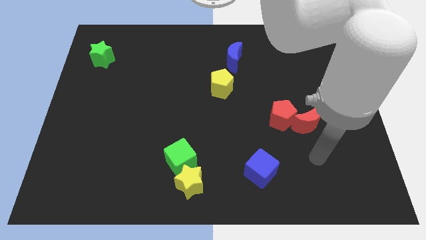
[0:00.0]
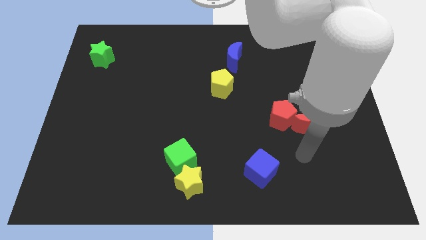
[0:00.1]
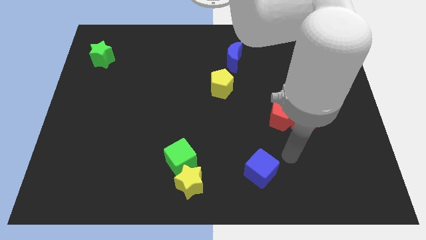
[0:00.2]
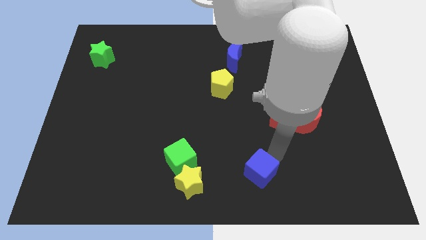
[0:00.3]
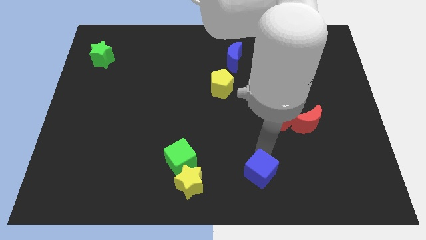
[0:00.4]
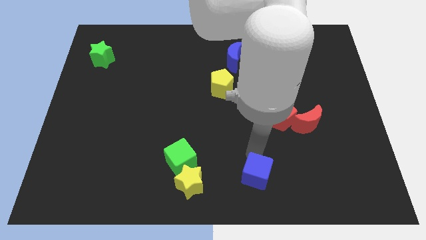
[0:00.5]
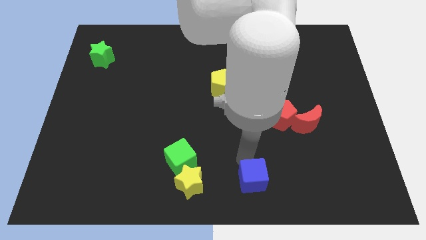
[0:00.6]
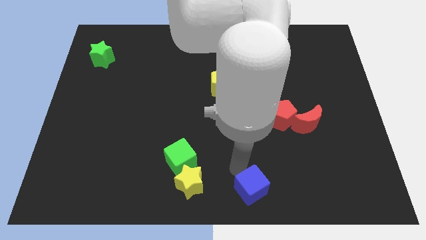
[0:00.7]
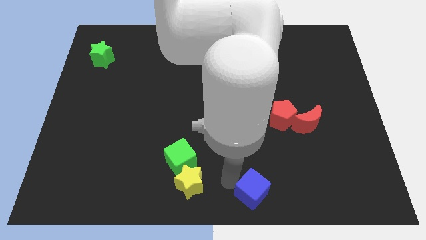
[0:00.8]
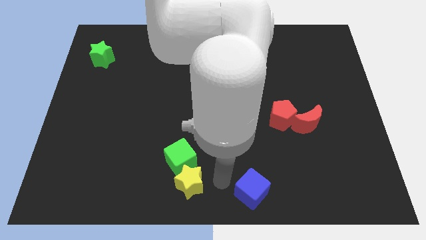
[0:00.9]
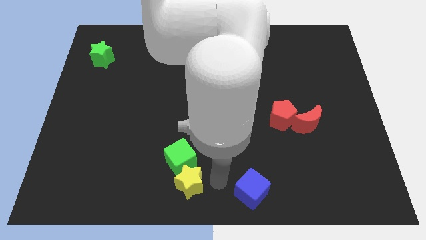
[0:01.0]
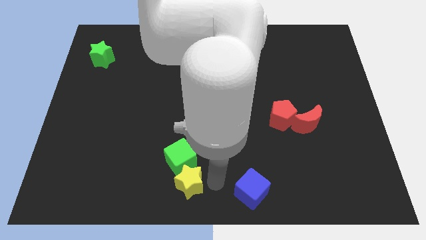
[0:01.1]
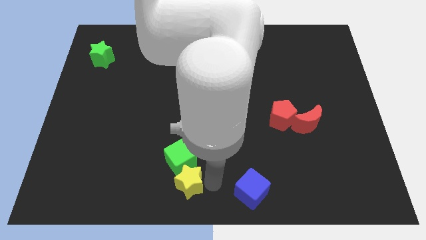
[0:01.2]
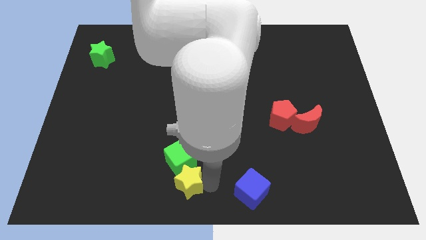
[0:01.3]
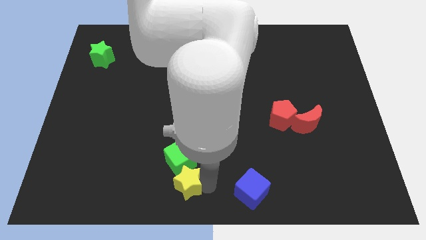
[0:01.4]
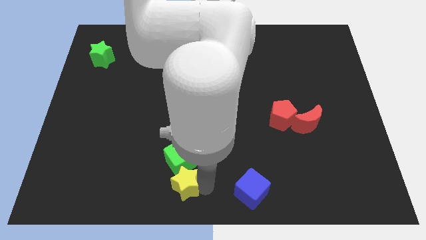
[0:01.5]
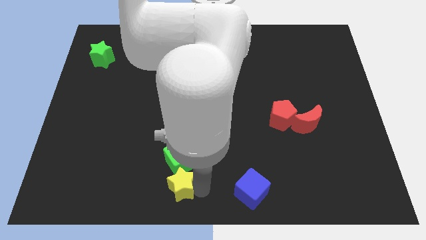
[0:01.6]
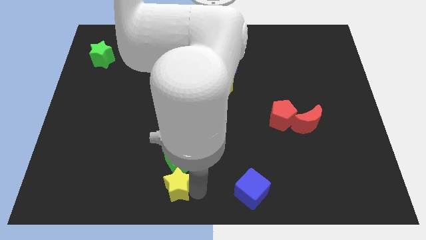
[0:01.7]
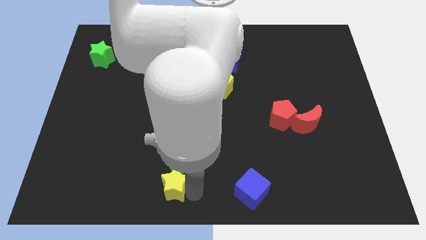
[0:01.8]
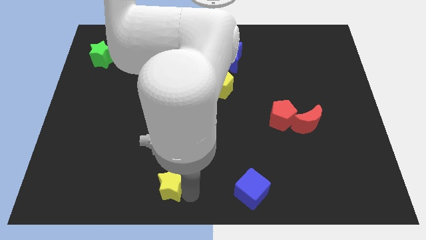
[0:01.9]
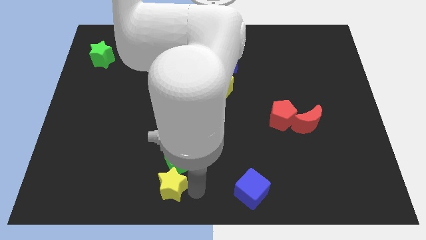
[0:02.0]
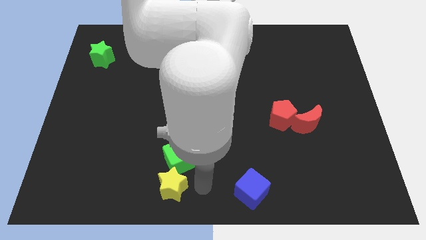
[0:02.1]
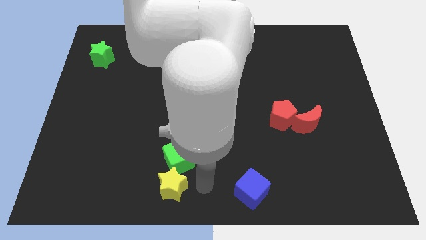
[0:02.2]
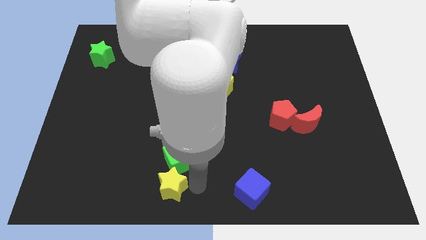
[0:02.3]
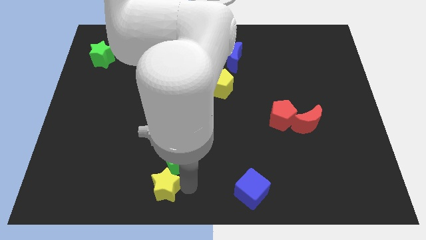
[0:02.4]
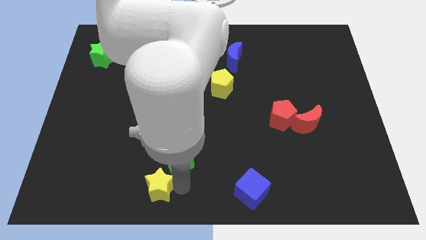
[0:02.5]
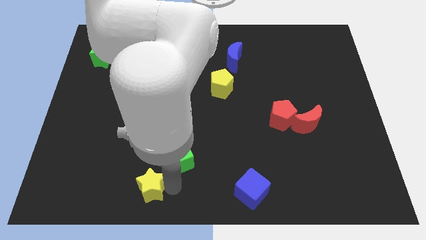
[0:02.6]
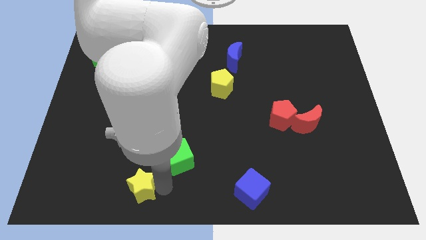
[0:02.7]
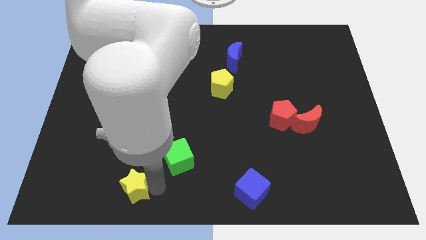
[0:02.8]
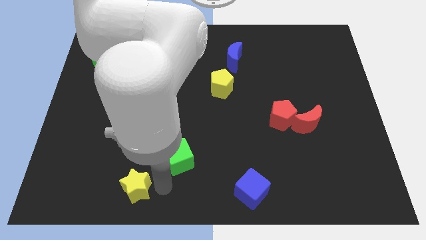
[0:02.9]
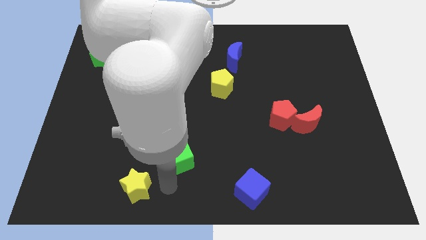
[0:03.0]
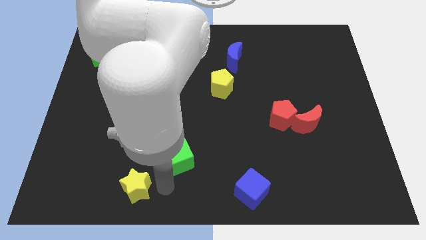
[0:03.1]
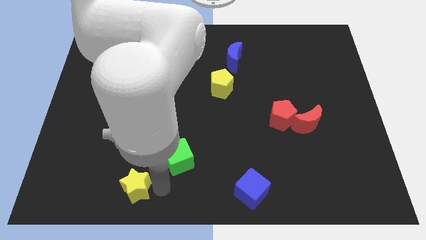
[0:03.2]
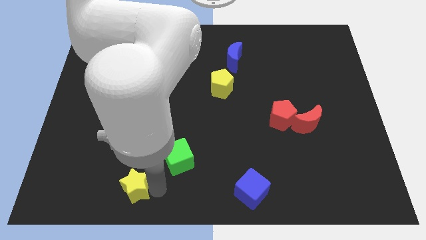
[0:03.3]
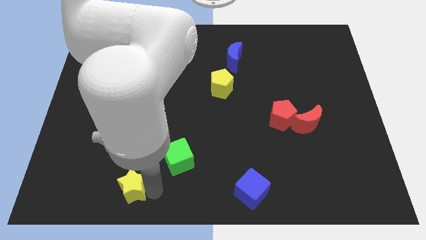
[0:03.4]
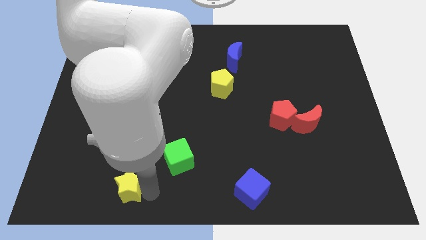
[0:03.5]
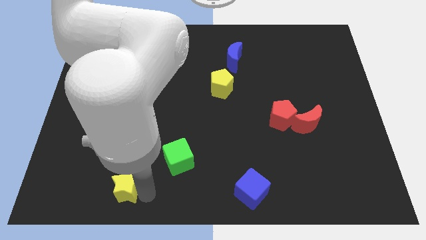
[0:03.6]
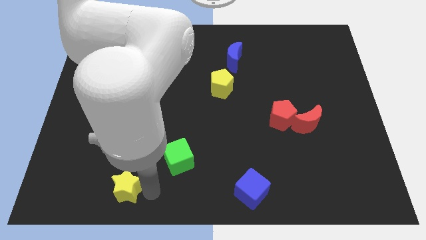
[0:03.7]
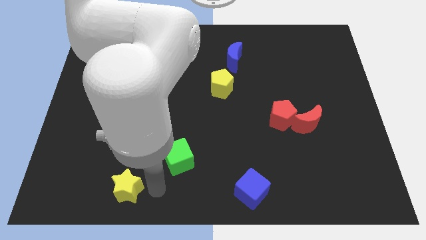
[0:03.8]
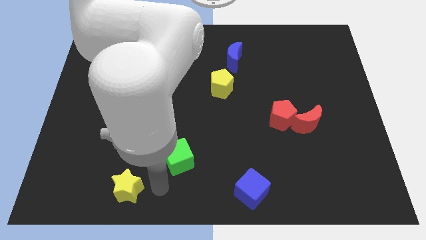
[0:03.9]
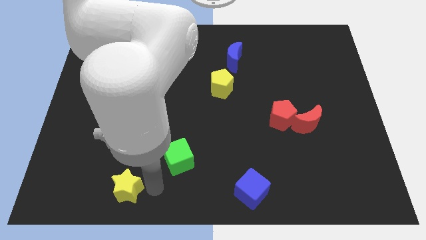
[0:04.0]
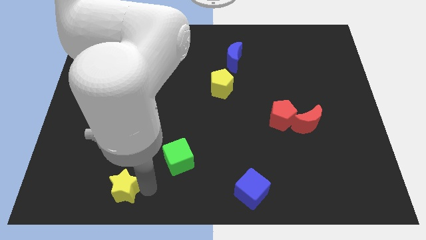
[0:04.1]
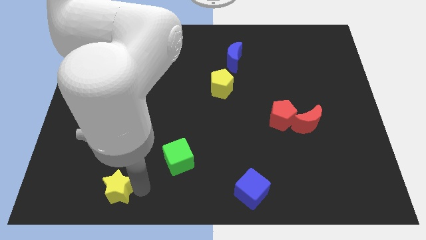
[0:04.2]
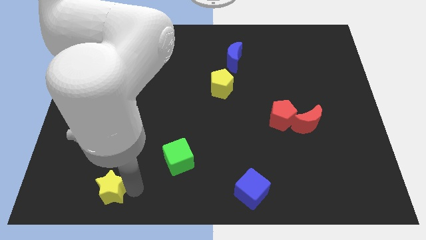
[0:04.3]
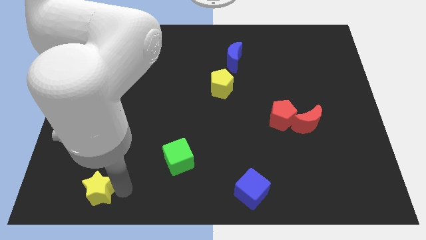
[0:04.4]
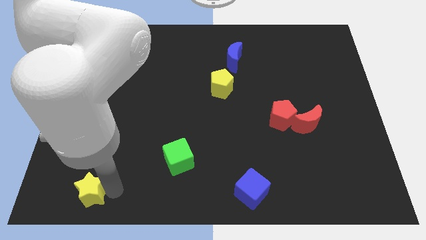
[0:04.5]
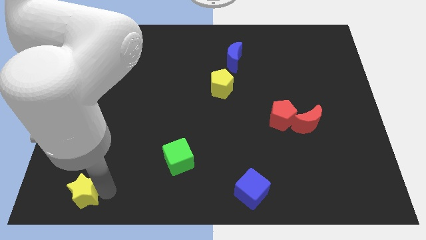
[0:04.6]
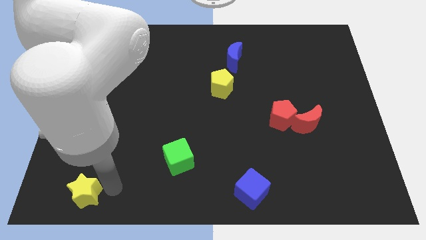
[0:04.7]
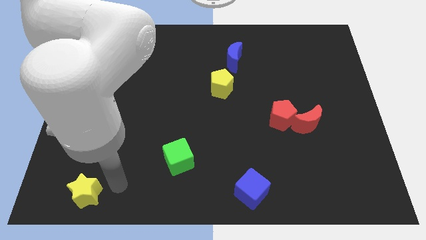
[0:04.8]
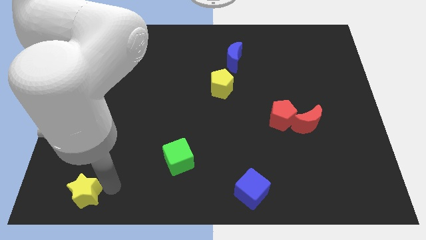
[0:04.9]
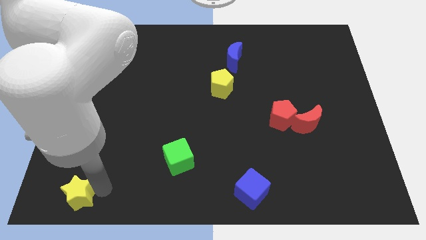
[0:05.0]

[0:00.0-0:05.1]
put the yellow star to the lower left corner
